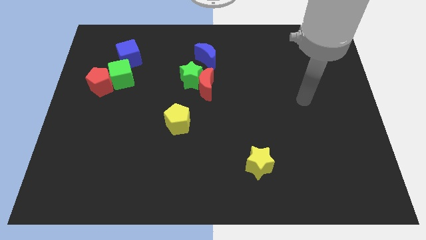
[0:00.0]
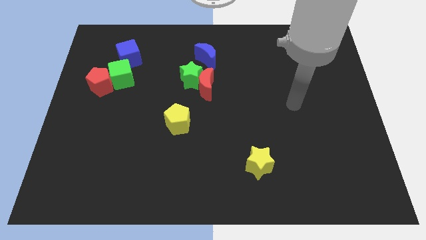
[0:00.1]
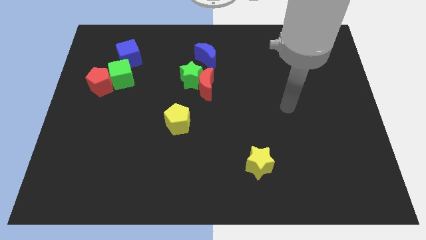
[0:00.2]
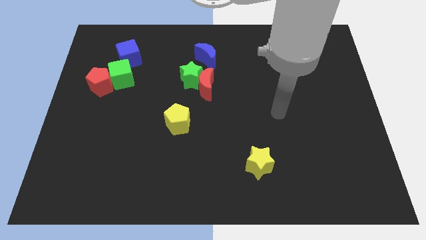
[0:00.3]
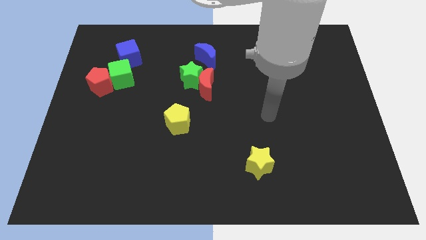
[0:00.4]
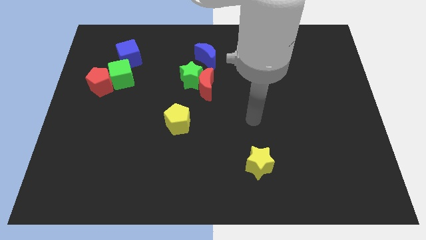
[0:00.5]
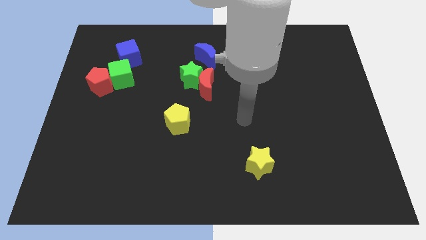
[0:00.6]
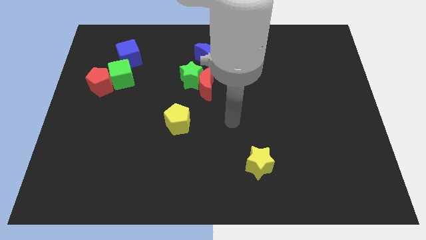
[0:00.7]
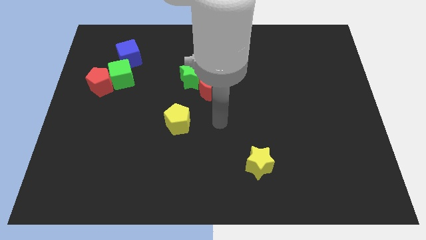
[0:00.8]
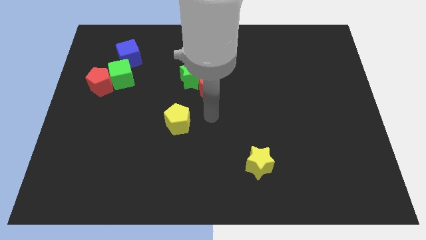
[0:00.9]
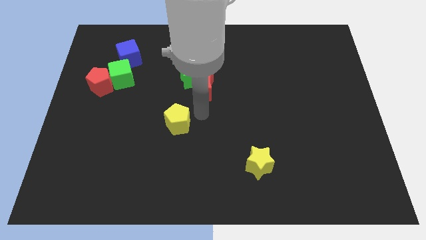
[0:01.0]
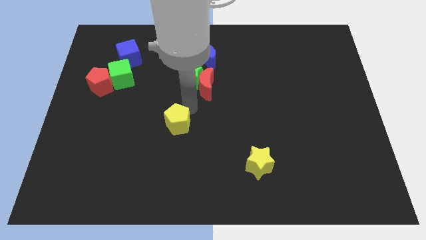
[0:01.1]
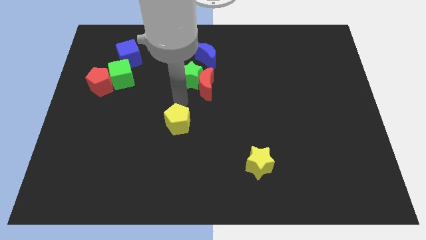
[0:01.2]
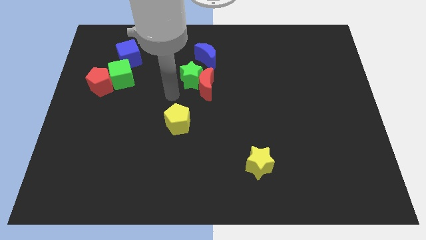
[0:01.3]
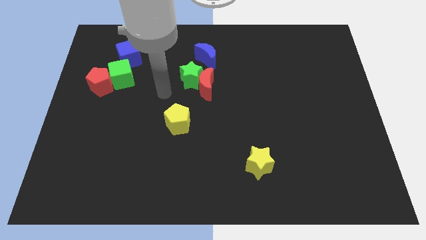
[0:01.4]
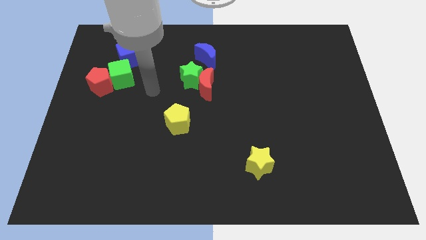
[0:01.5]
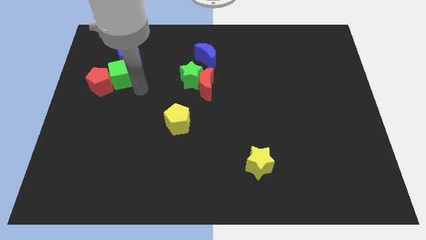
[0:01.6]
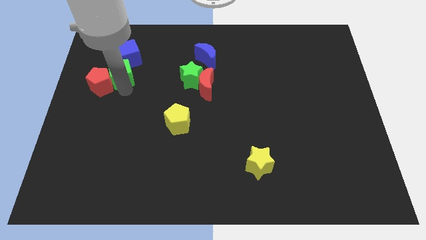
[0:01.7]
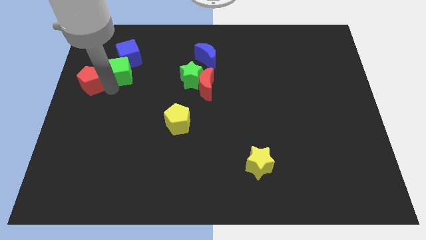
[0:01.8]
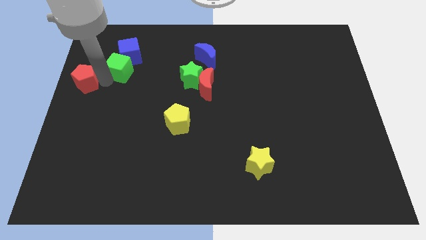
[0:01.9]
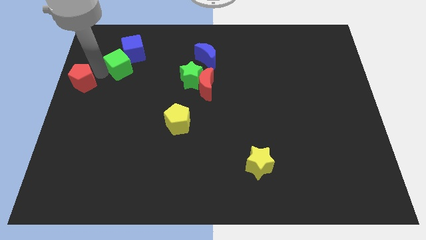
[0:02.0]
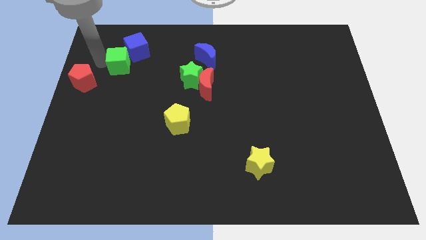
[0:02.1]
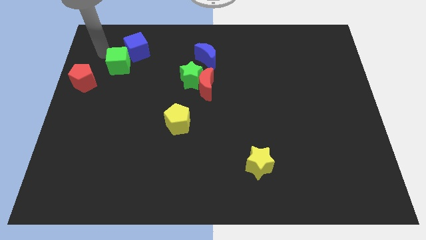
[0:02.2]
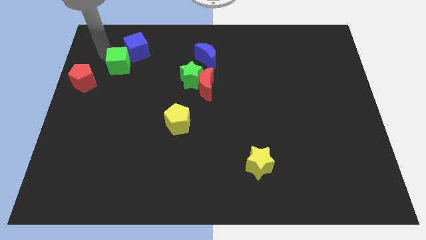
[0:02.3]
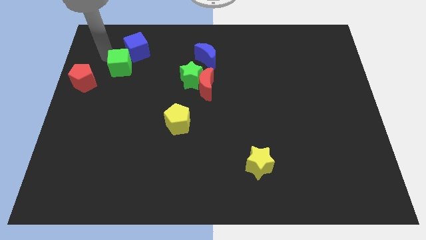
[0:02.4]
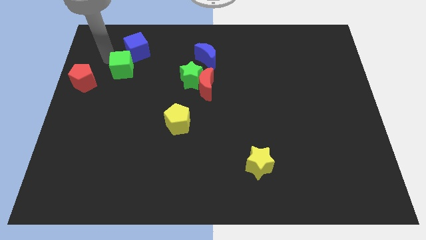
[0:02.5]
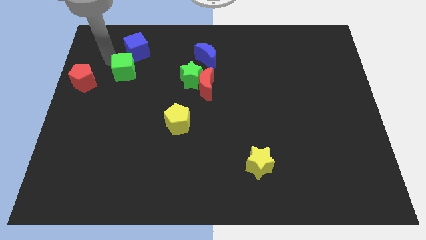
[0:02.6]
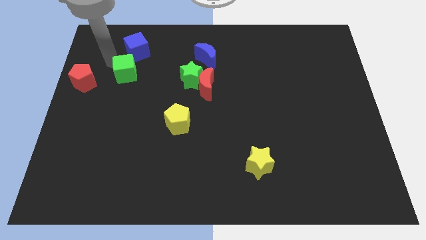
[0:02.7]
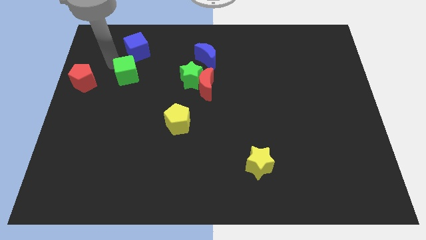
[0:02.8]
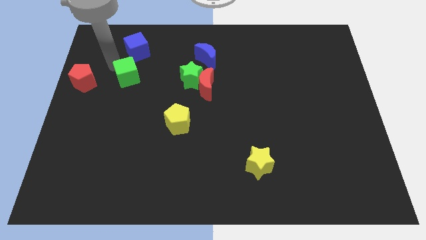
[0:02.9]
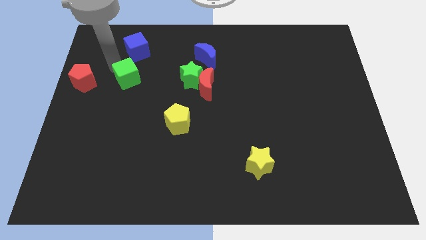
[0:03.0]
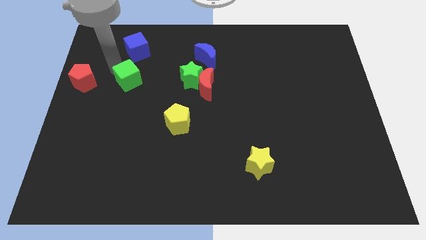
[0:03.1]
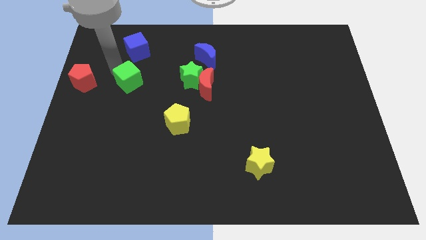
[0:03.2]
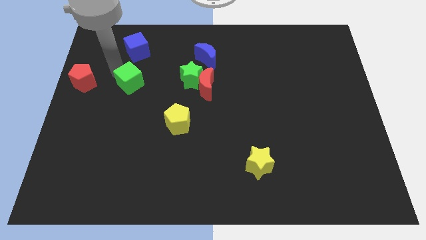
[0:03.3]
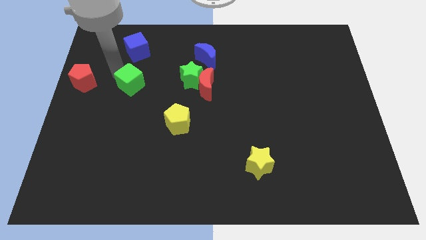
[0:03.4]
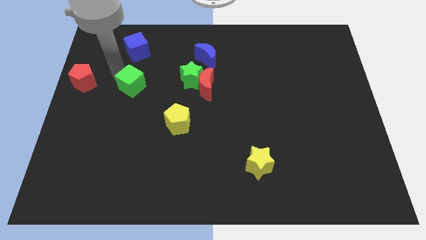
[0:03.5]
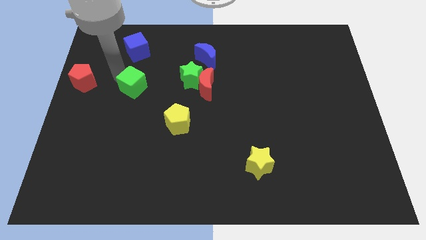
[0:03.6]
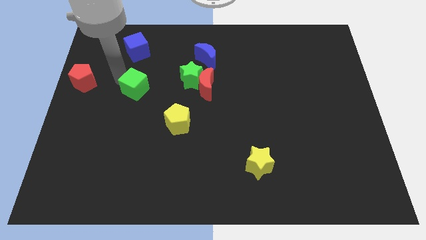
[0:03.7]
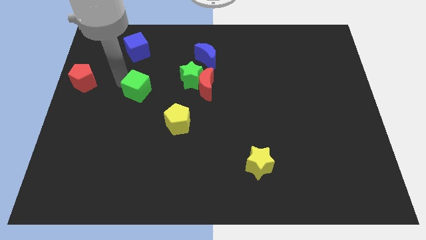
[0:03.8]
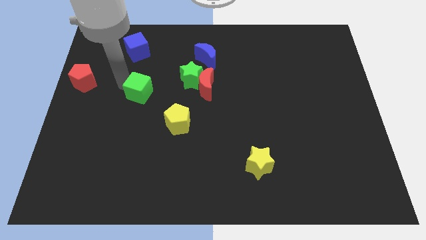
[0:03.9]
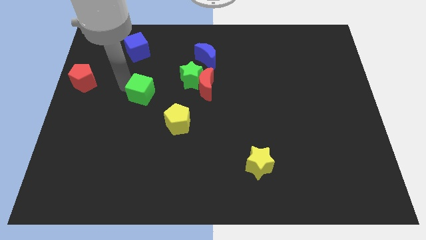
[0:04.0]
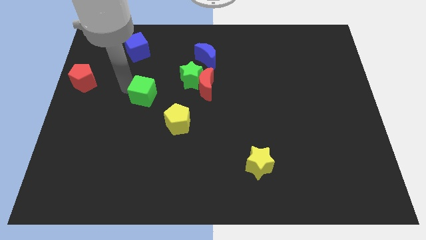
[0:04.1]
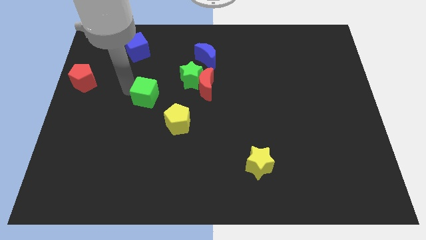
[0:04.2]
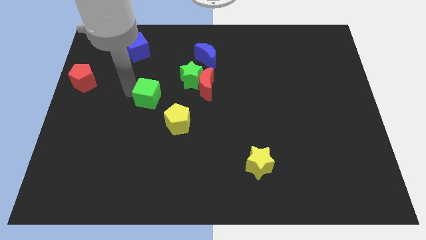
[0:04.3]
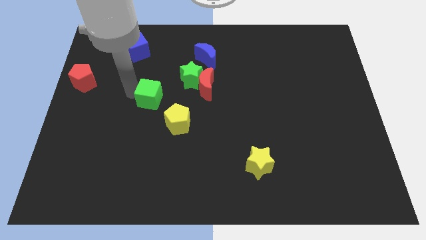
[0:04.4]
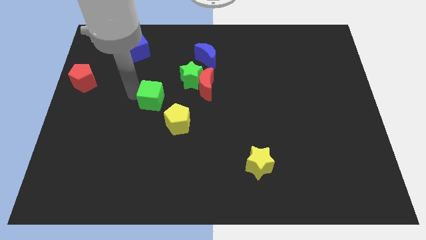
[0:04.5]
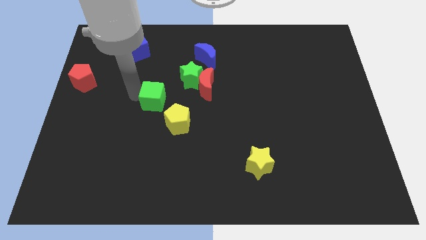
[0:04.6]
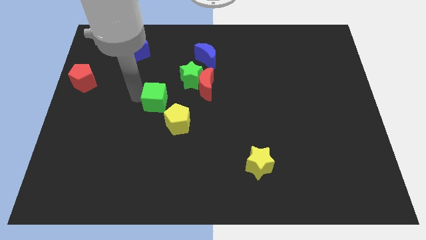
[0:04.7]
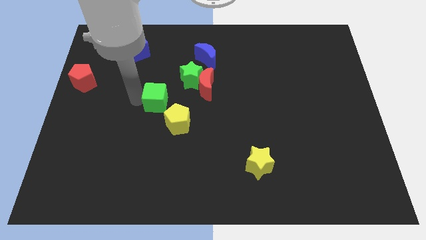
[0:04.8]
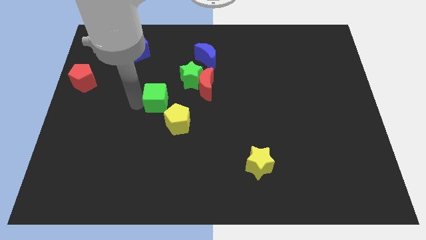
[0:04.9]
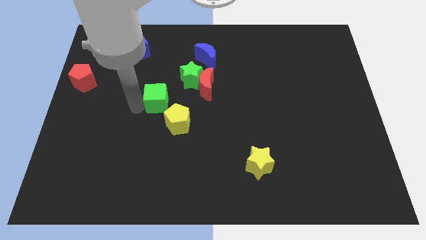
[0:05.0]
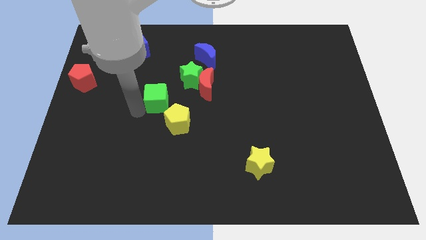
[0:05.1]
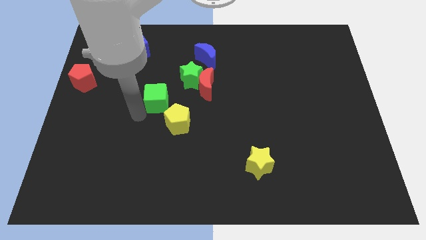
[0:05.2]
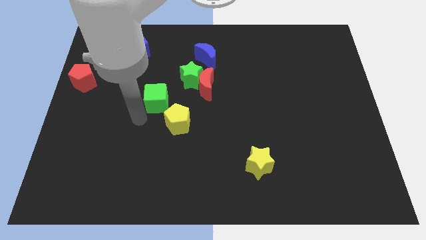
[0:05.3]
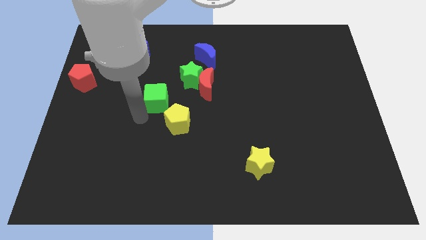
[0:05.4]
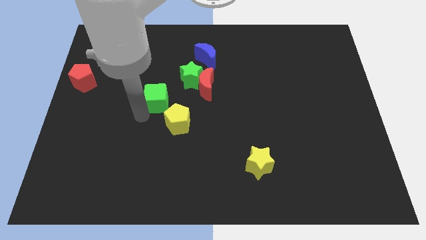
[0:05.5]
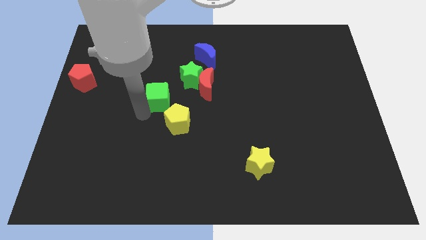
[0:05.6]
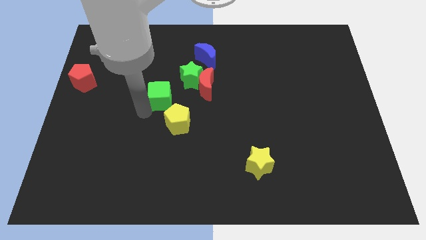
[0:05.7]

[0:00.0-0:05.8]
slide the green cube to the center

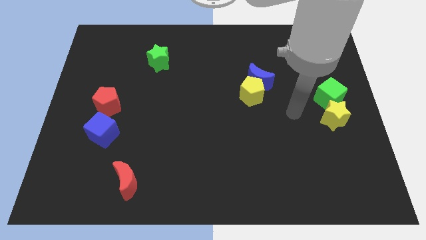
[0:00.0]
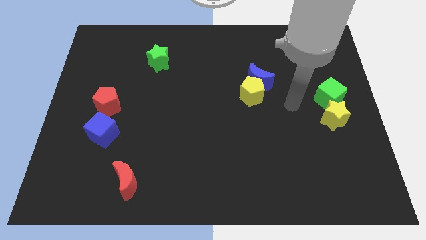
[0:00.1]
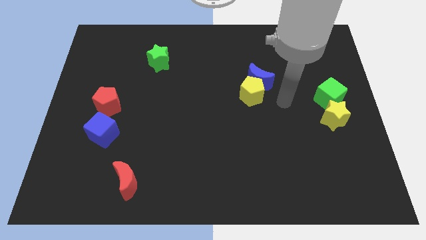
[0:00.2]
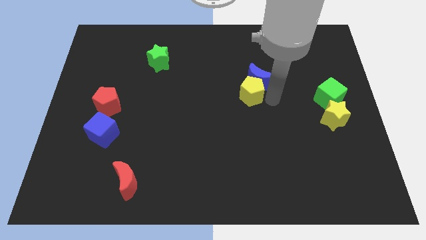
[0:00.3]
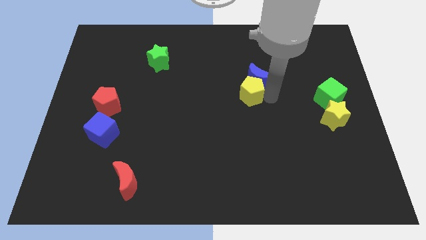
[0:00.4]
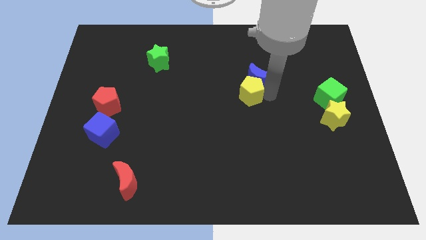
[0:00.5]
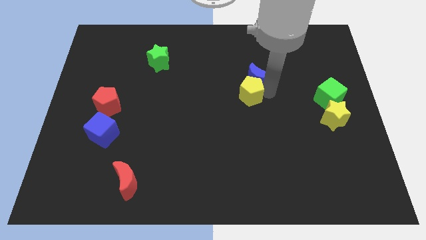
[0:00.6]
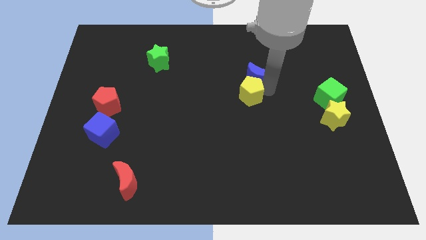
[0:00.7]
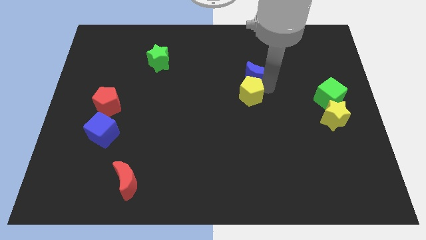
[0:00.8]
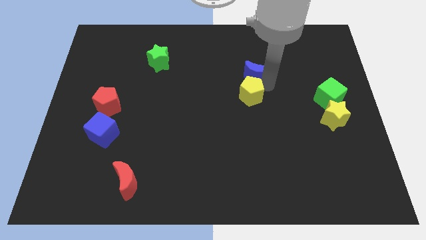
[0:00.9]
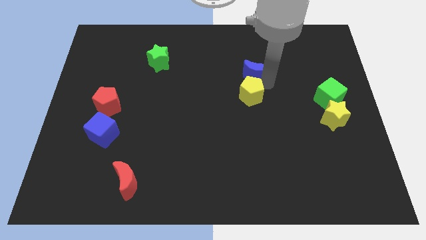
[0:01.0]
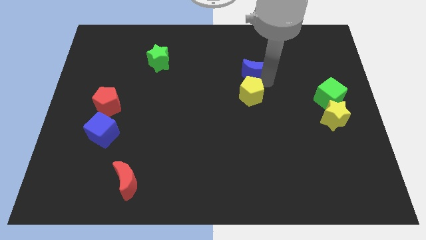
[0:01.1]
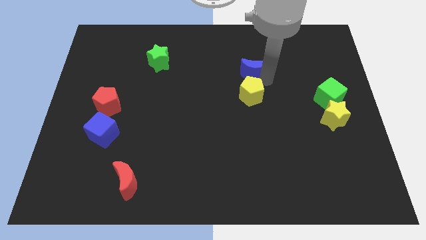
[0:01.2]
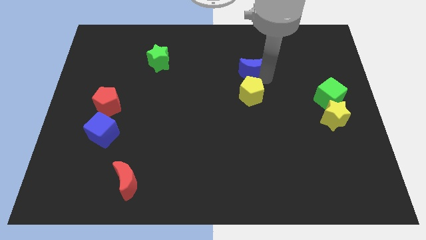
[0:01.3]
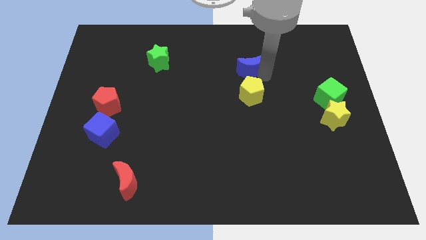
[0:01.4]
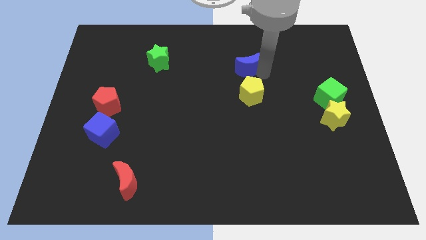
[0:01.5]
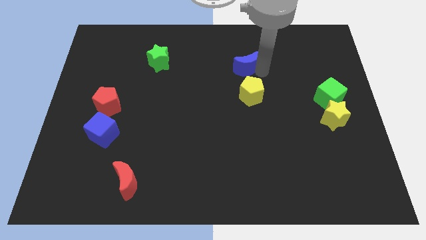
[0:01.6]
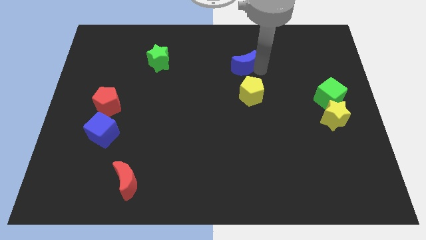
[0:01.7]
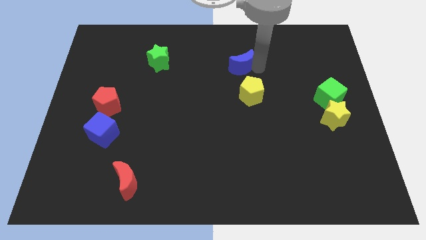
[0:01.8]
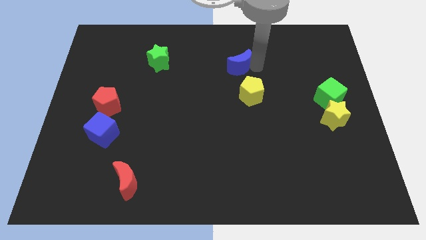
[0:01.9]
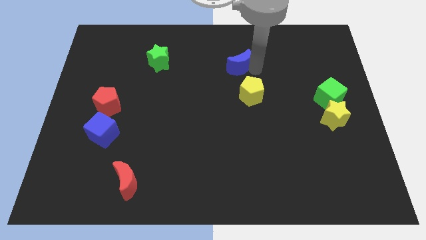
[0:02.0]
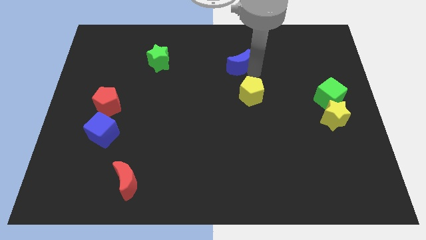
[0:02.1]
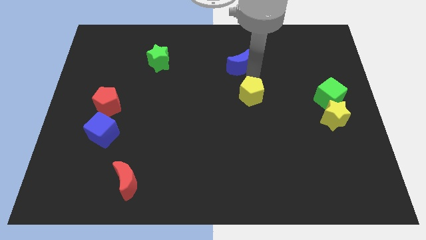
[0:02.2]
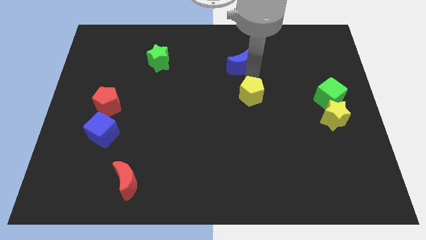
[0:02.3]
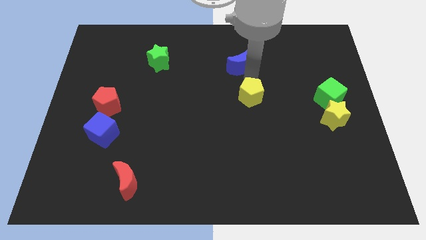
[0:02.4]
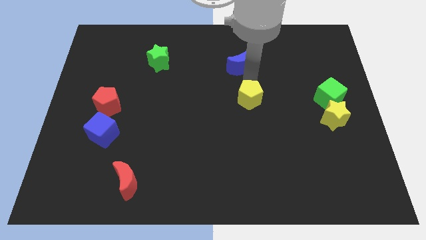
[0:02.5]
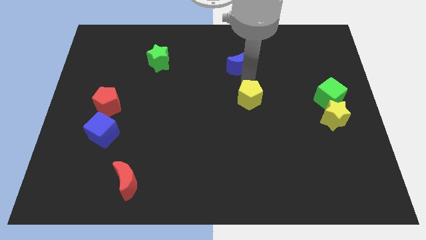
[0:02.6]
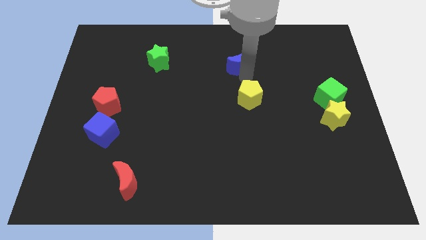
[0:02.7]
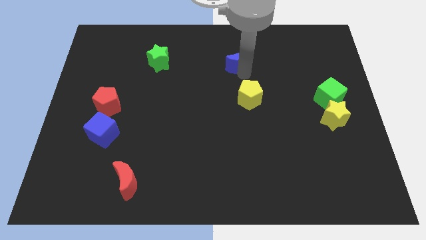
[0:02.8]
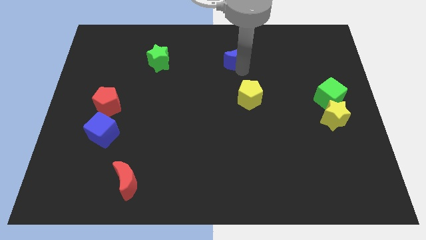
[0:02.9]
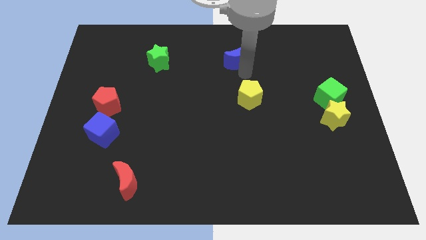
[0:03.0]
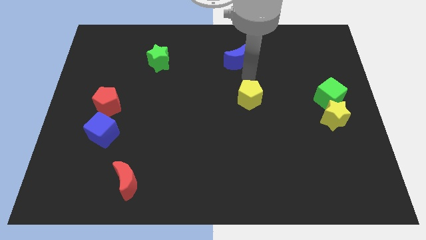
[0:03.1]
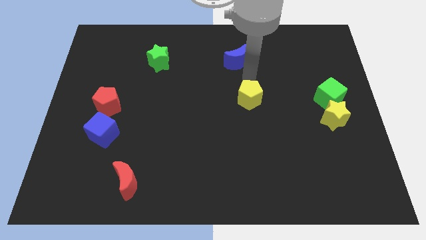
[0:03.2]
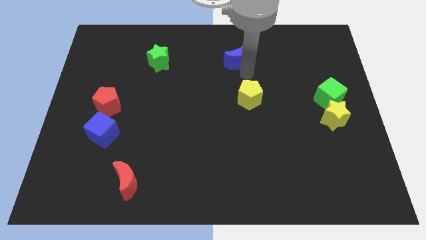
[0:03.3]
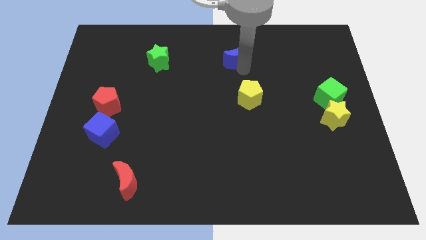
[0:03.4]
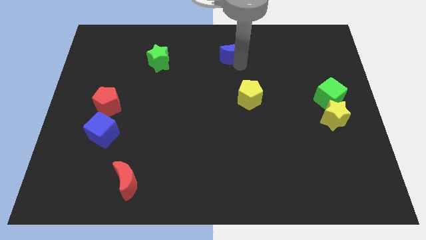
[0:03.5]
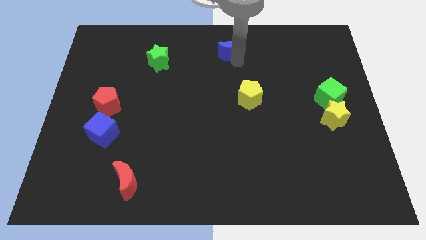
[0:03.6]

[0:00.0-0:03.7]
move the blue moon to the top side
